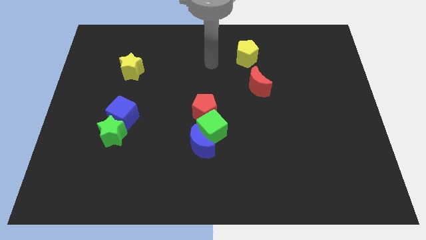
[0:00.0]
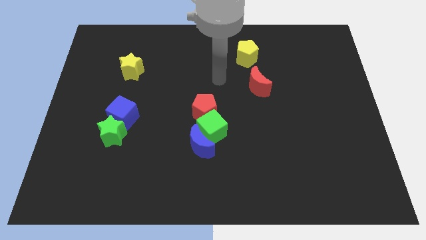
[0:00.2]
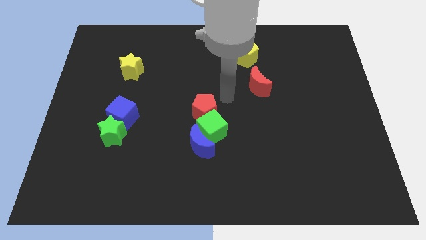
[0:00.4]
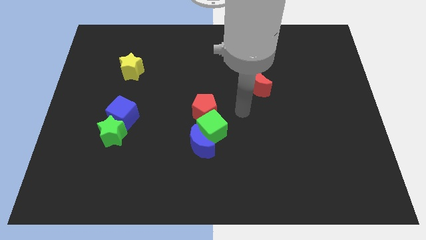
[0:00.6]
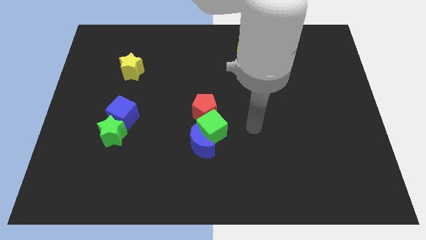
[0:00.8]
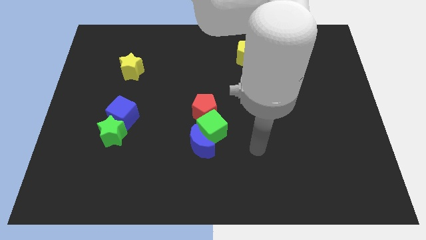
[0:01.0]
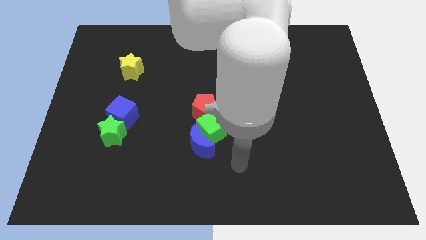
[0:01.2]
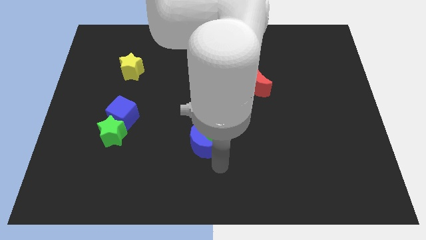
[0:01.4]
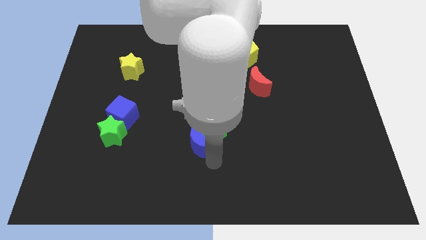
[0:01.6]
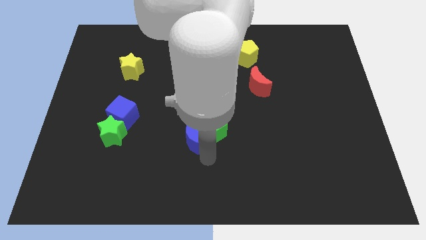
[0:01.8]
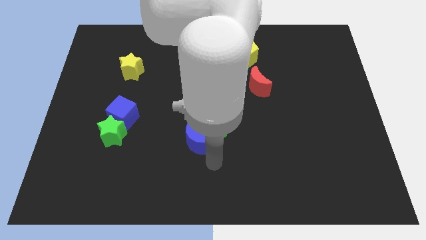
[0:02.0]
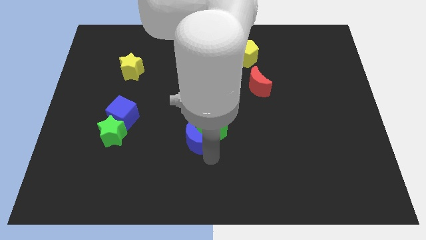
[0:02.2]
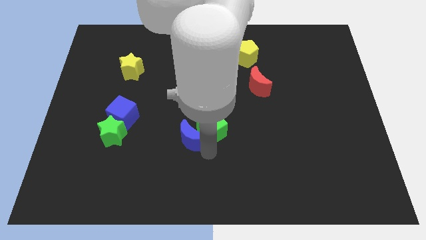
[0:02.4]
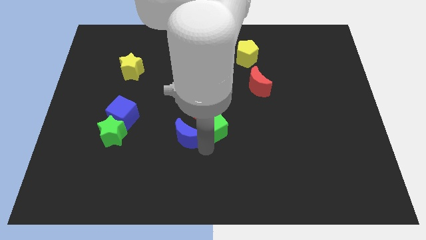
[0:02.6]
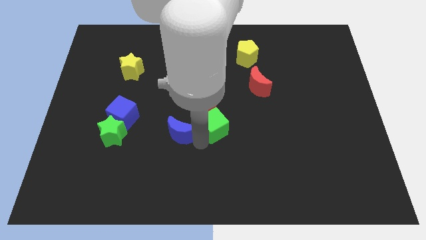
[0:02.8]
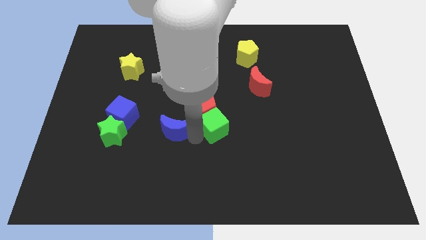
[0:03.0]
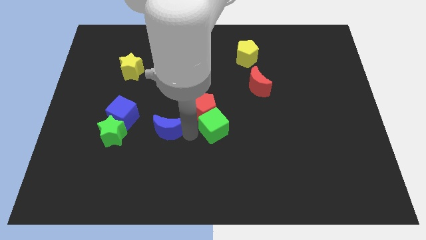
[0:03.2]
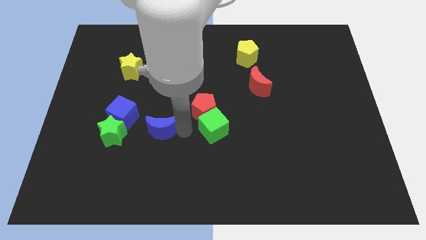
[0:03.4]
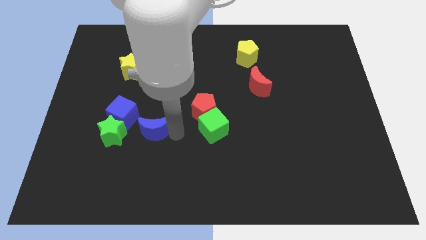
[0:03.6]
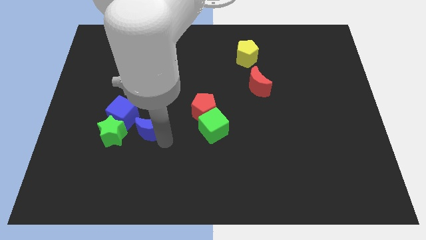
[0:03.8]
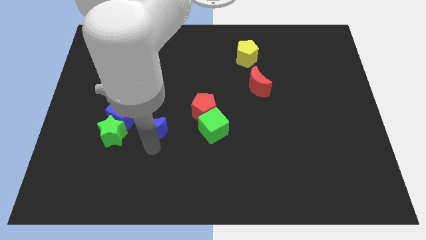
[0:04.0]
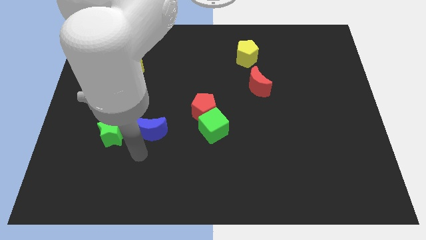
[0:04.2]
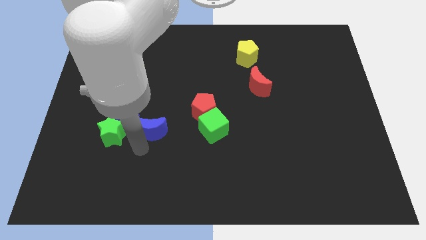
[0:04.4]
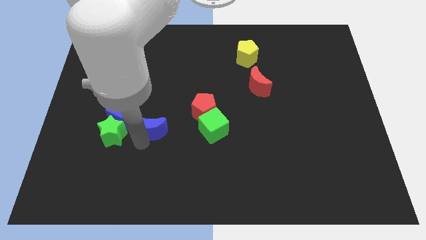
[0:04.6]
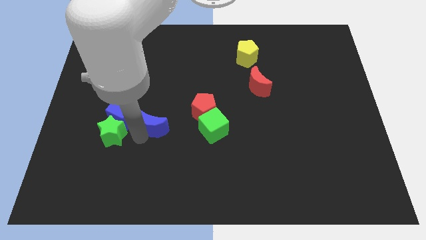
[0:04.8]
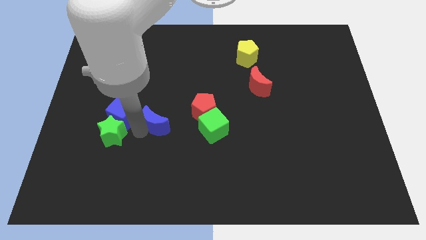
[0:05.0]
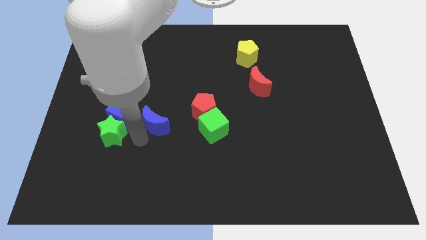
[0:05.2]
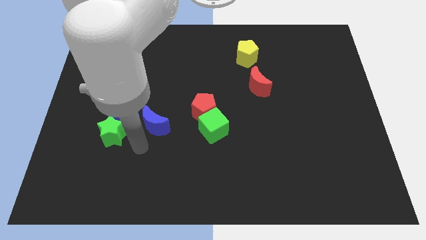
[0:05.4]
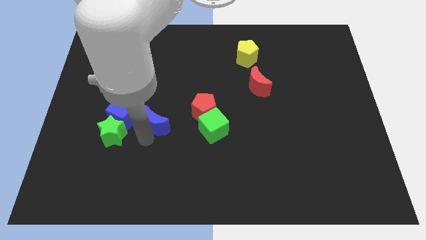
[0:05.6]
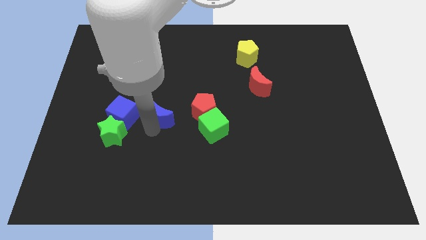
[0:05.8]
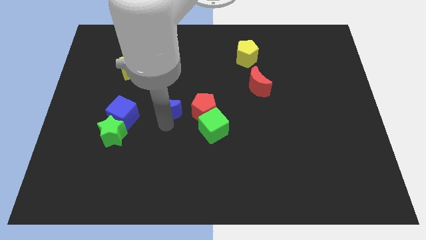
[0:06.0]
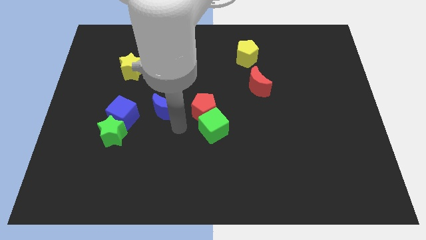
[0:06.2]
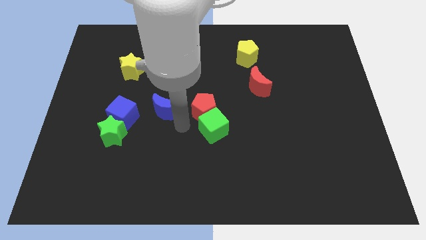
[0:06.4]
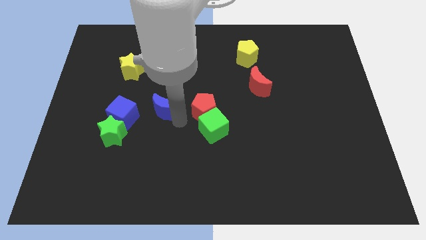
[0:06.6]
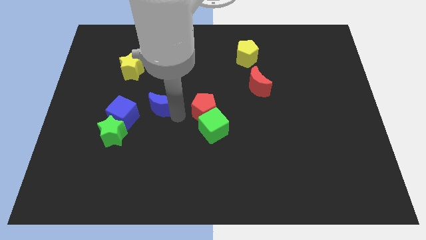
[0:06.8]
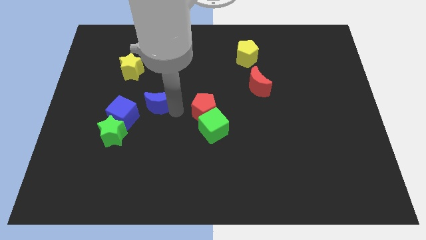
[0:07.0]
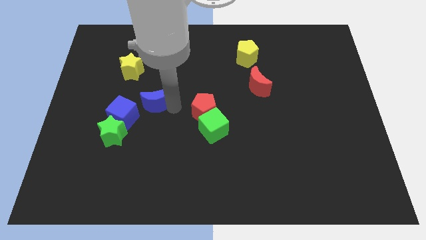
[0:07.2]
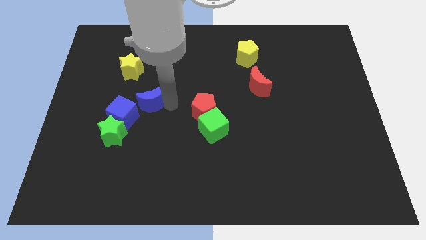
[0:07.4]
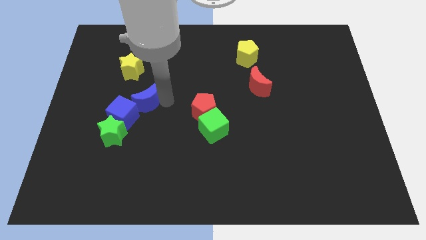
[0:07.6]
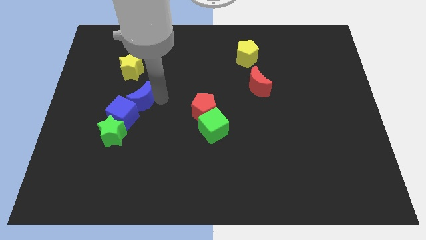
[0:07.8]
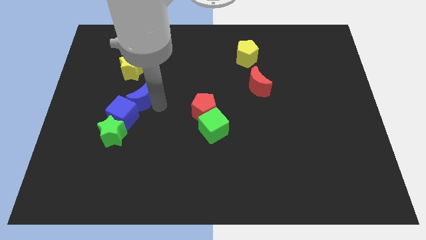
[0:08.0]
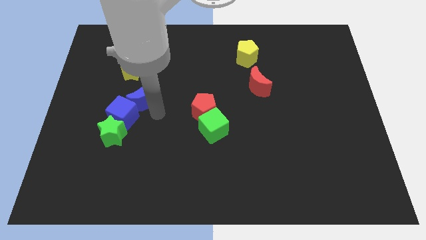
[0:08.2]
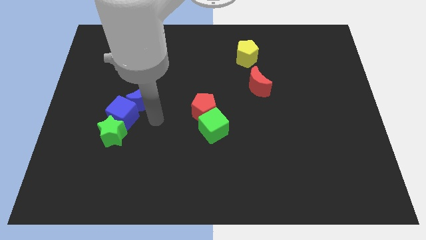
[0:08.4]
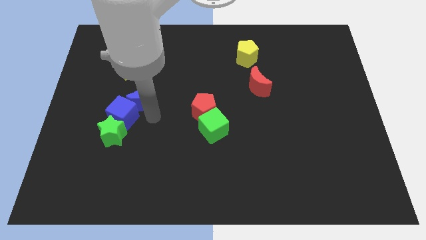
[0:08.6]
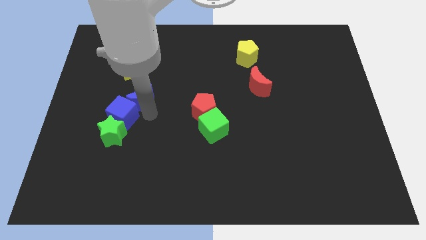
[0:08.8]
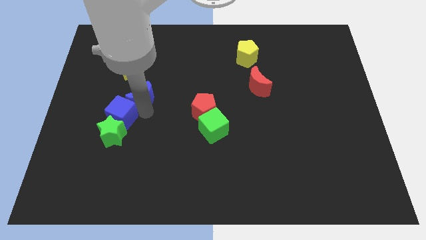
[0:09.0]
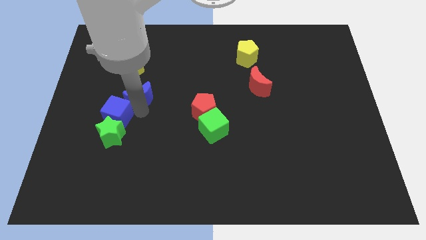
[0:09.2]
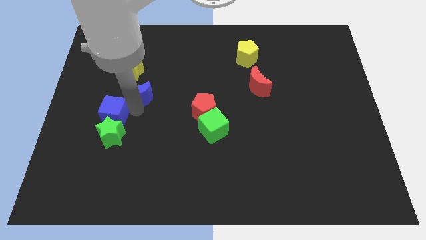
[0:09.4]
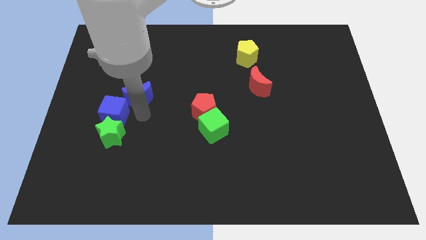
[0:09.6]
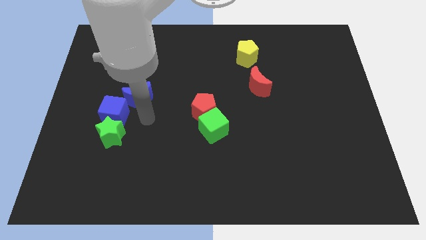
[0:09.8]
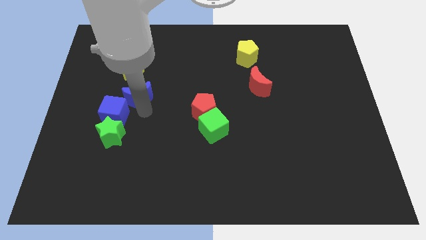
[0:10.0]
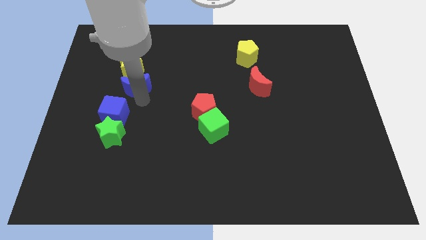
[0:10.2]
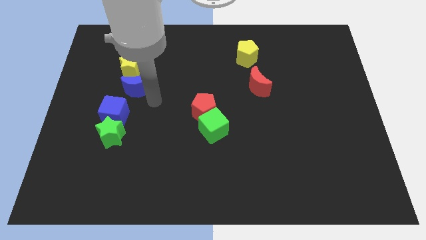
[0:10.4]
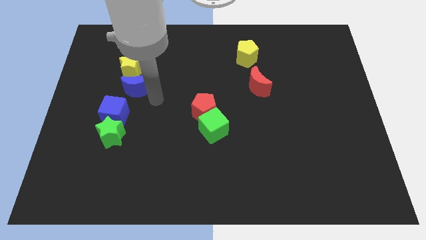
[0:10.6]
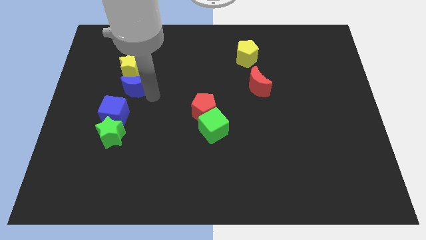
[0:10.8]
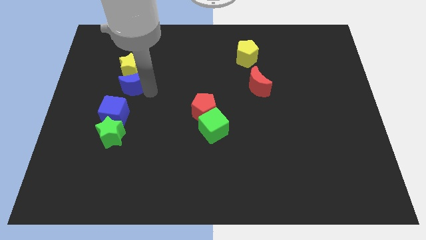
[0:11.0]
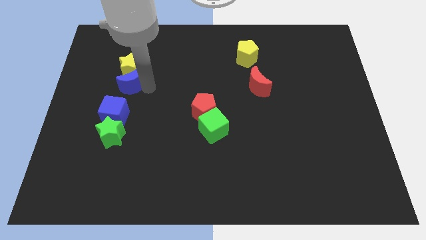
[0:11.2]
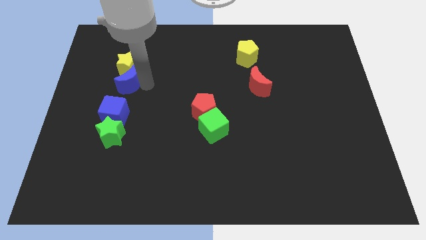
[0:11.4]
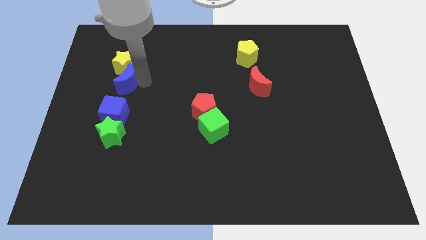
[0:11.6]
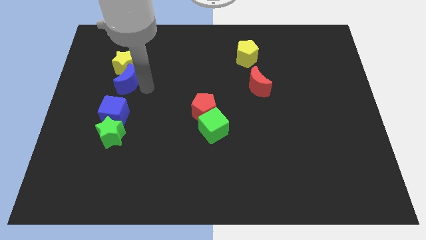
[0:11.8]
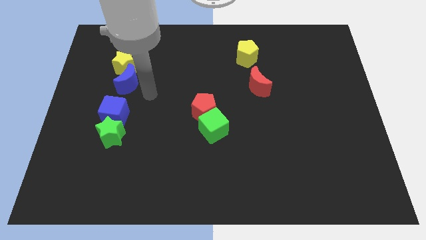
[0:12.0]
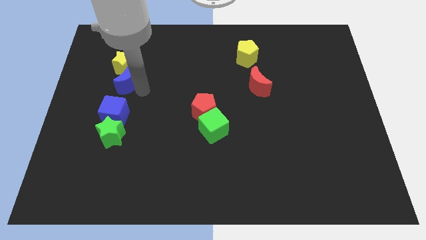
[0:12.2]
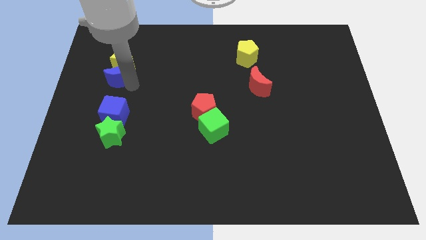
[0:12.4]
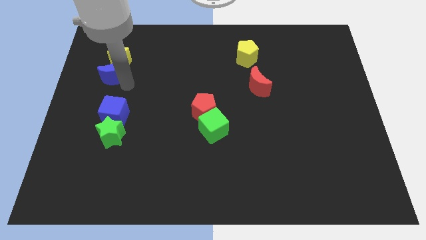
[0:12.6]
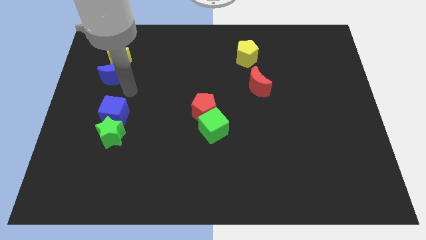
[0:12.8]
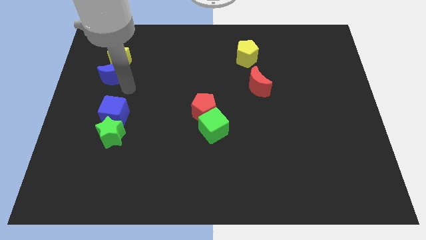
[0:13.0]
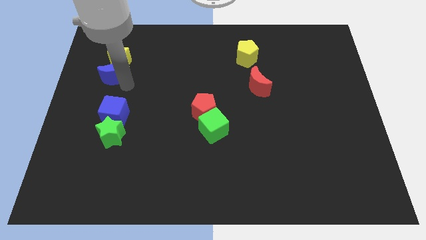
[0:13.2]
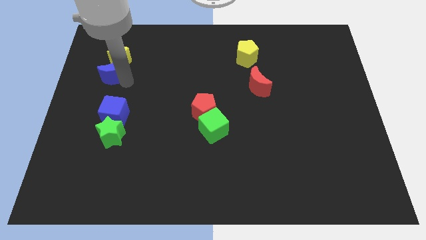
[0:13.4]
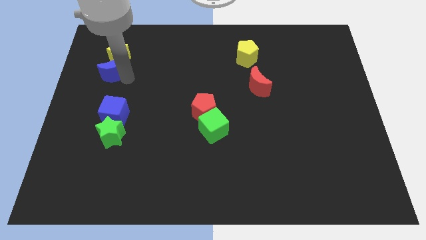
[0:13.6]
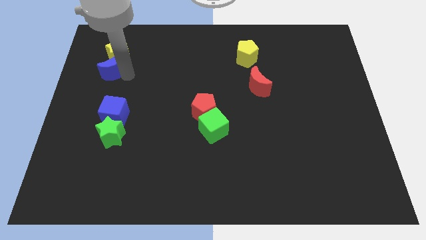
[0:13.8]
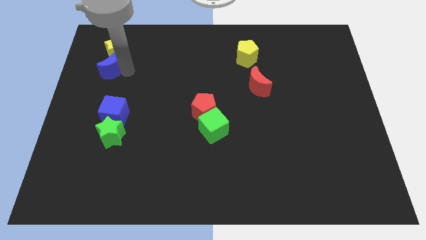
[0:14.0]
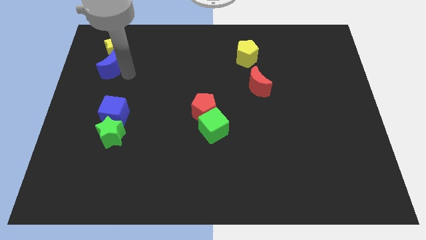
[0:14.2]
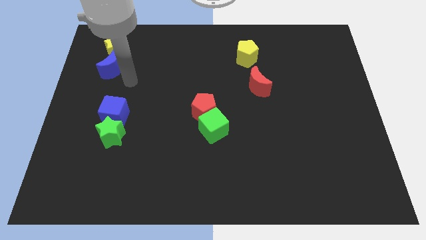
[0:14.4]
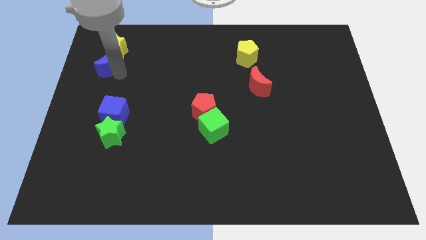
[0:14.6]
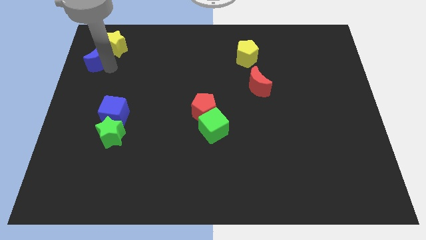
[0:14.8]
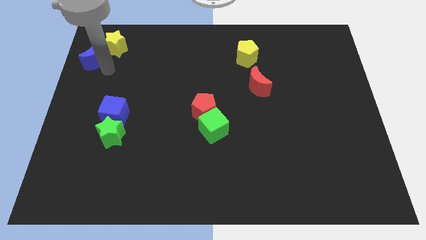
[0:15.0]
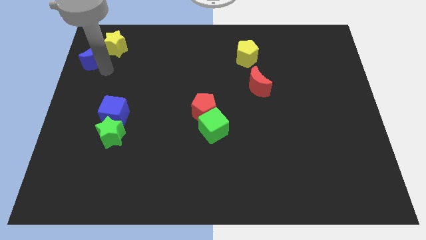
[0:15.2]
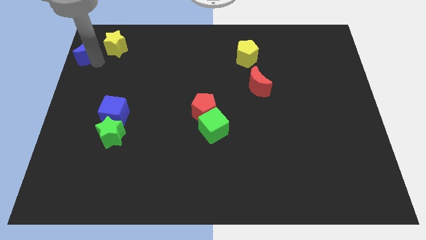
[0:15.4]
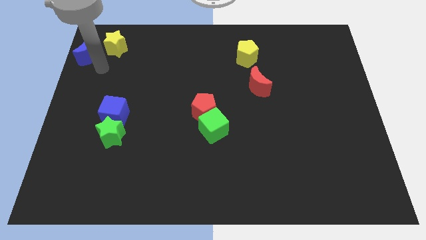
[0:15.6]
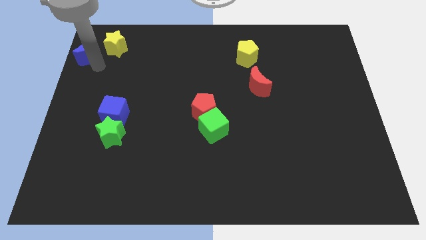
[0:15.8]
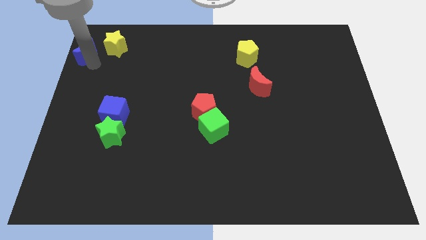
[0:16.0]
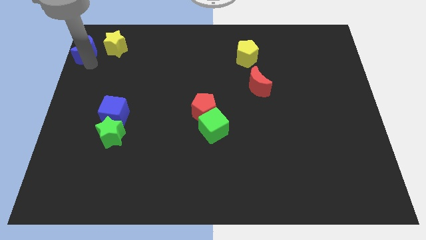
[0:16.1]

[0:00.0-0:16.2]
slide the blue moon to the top left of the board
